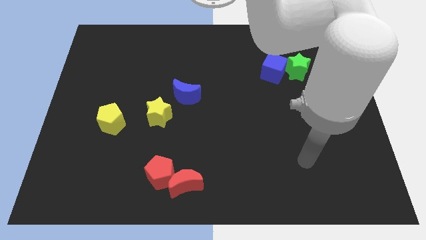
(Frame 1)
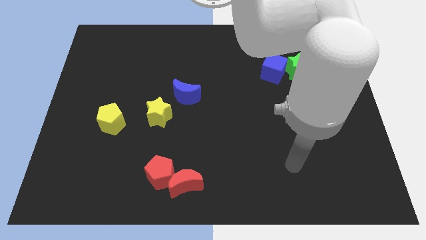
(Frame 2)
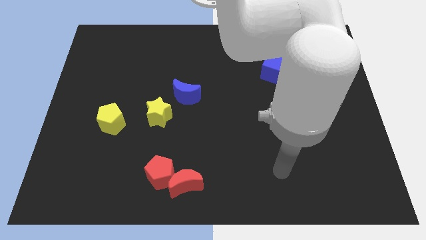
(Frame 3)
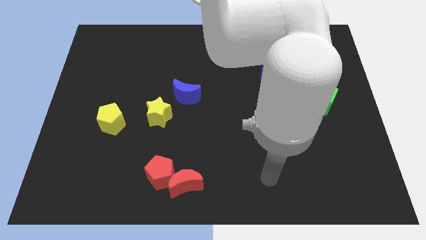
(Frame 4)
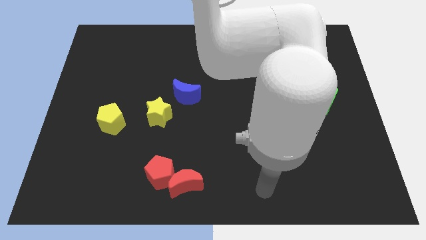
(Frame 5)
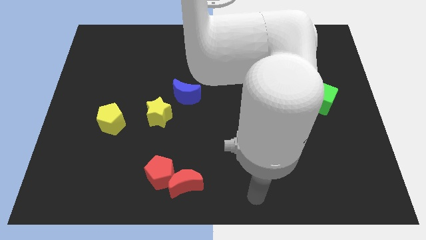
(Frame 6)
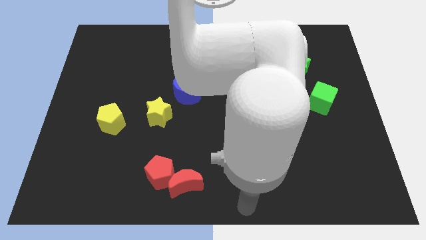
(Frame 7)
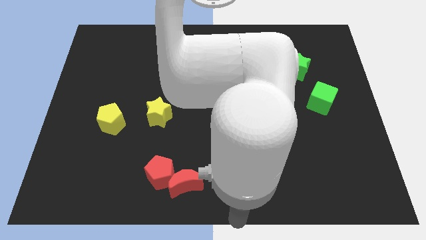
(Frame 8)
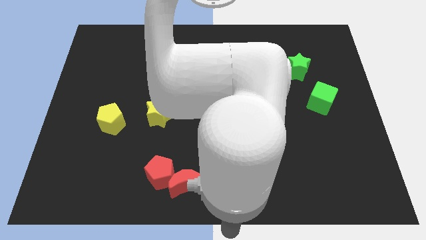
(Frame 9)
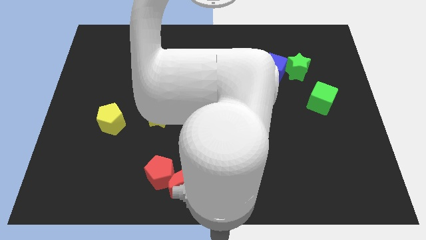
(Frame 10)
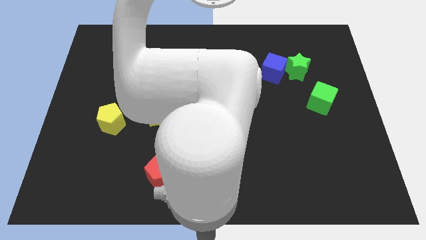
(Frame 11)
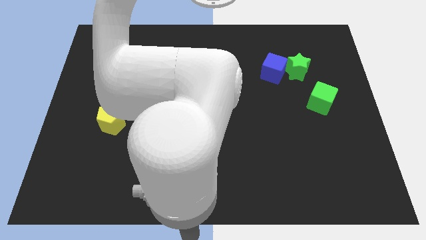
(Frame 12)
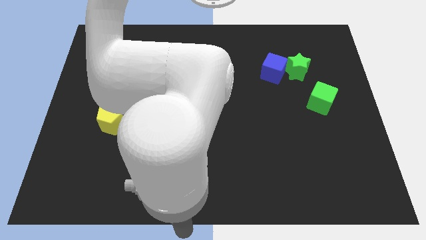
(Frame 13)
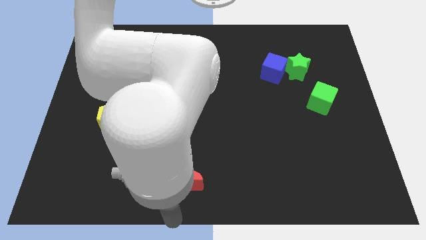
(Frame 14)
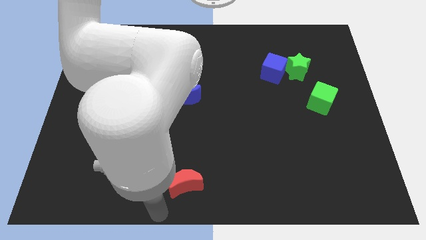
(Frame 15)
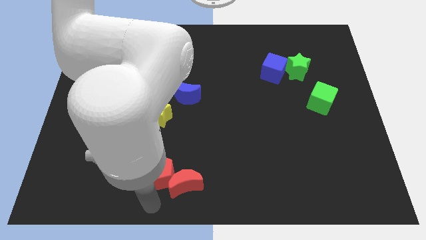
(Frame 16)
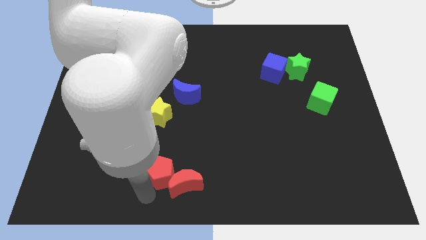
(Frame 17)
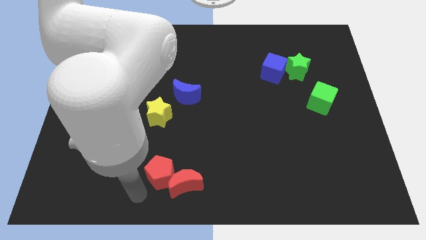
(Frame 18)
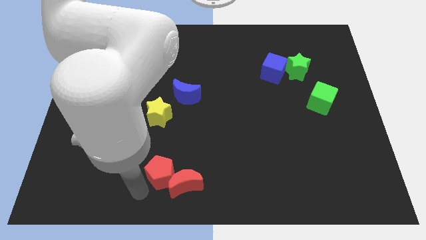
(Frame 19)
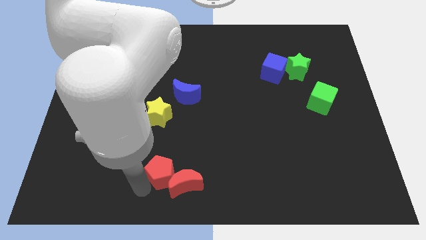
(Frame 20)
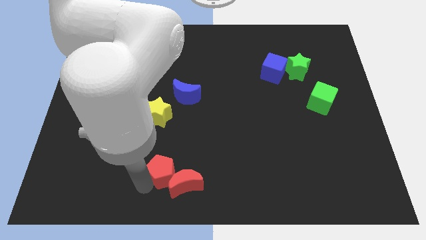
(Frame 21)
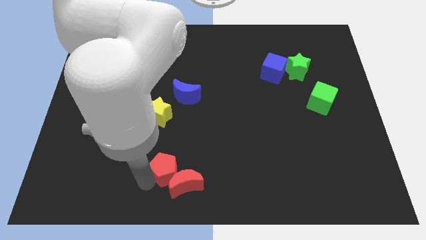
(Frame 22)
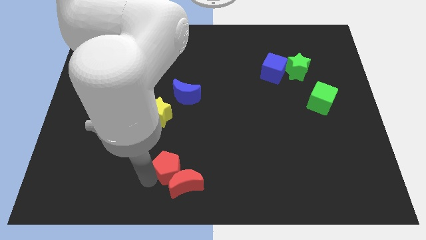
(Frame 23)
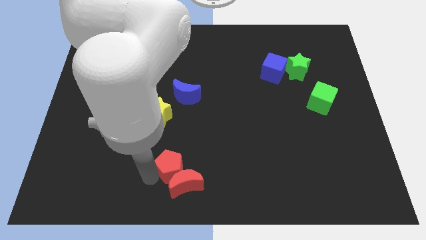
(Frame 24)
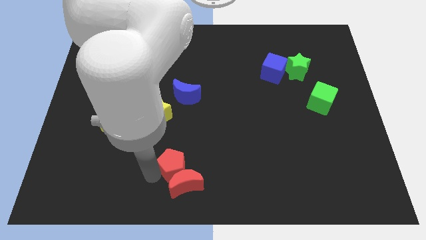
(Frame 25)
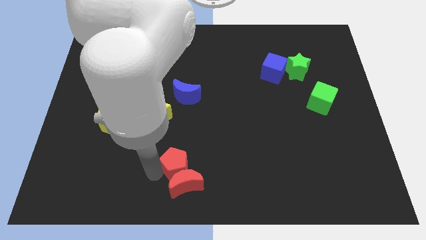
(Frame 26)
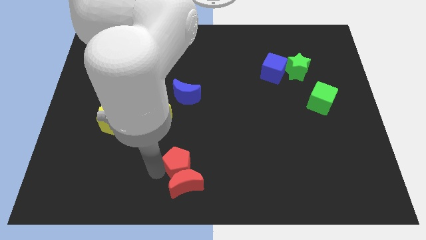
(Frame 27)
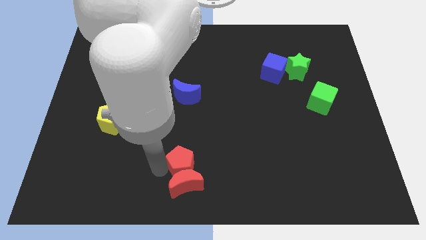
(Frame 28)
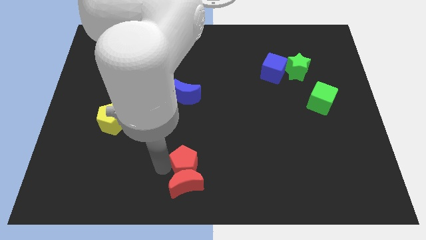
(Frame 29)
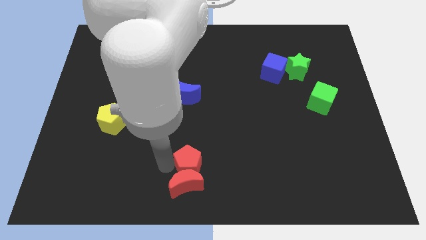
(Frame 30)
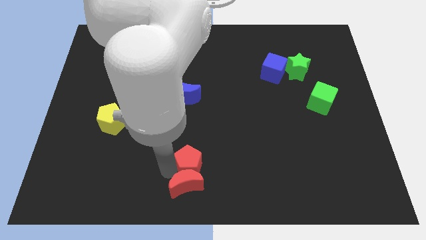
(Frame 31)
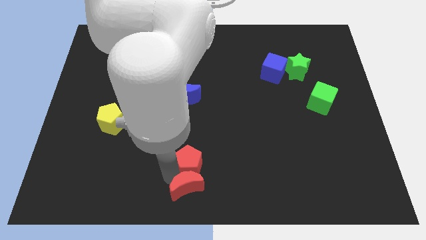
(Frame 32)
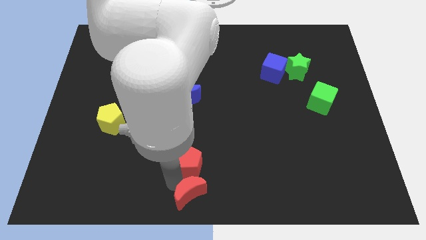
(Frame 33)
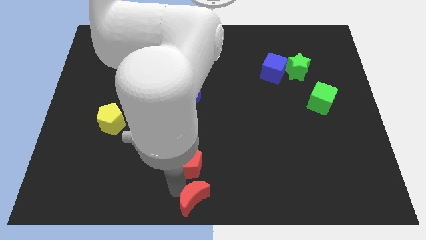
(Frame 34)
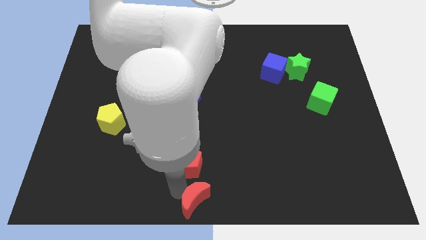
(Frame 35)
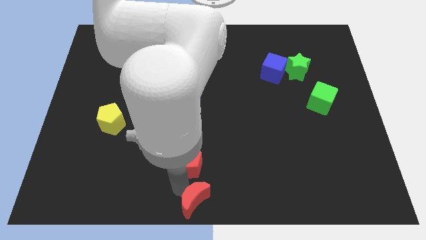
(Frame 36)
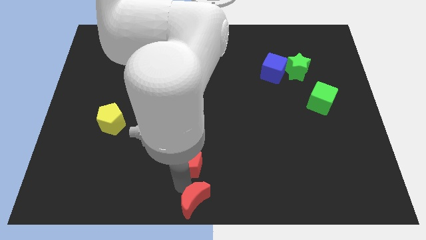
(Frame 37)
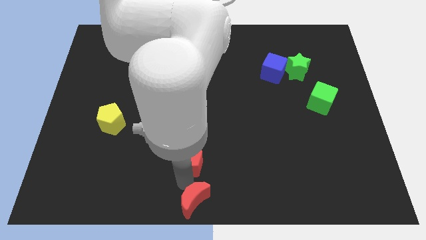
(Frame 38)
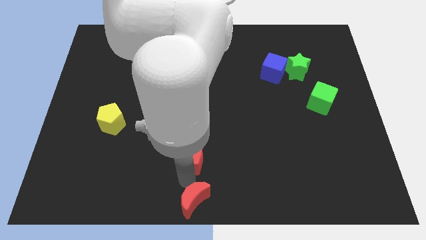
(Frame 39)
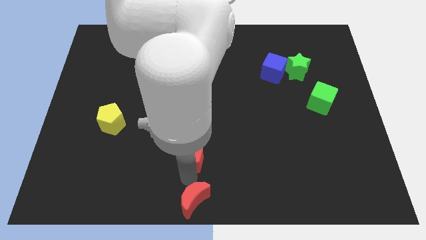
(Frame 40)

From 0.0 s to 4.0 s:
move the red pentagon a little up and to the right

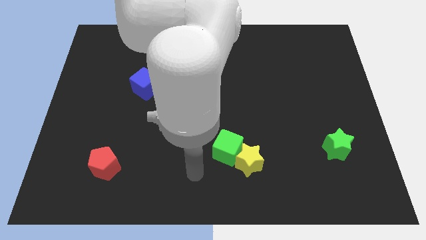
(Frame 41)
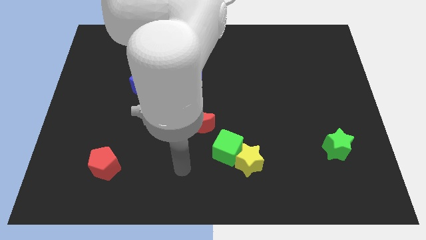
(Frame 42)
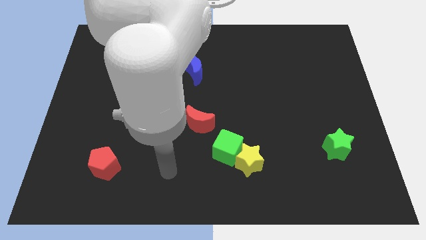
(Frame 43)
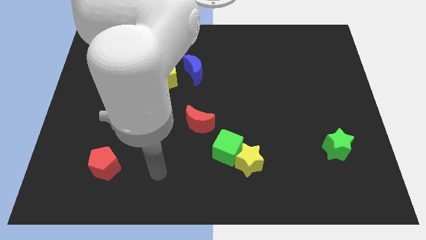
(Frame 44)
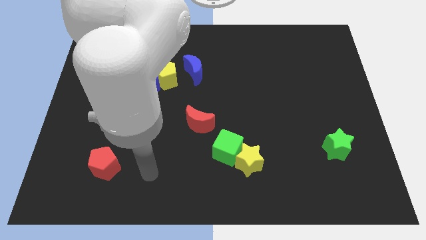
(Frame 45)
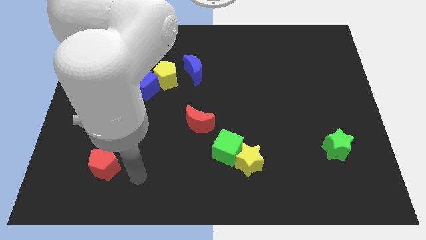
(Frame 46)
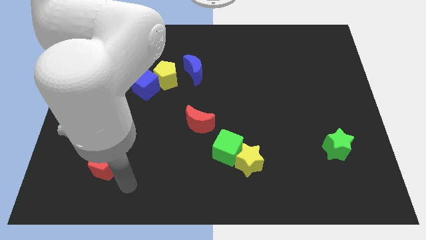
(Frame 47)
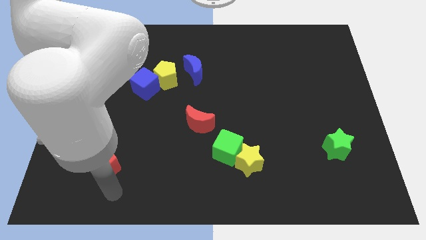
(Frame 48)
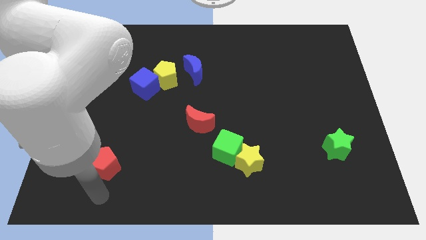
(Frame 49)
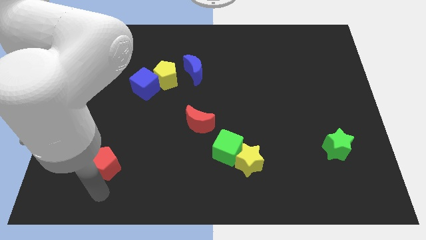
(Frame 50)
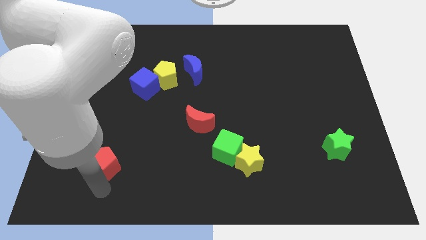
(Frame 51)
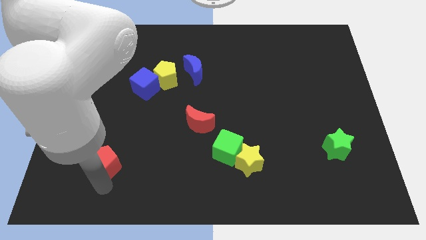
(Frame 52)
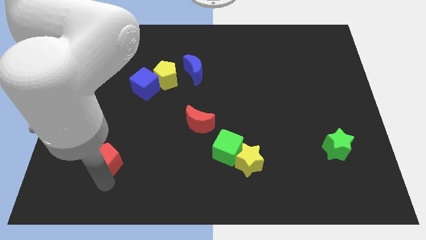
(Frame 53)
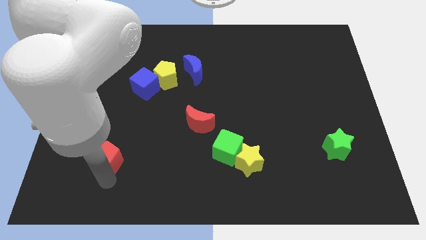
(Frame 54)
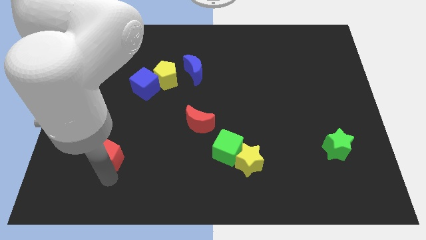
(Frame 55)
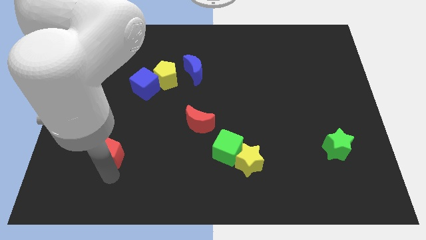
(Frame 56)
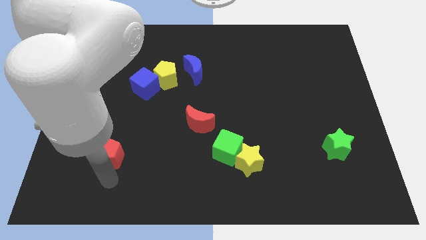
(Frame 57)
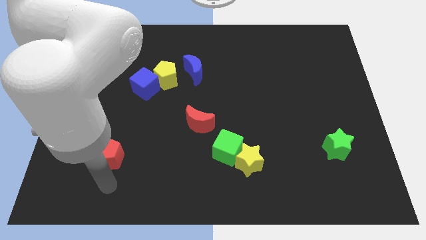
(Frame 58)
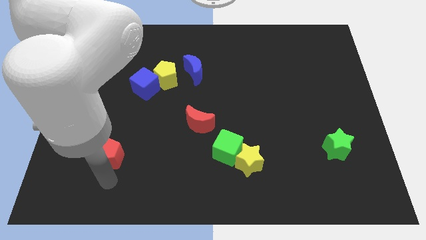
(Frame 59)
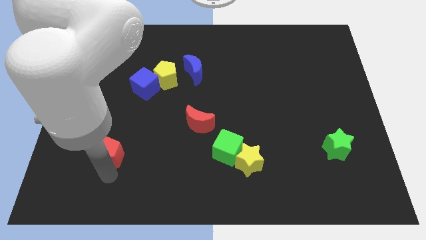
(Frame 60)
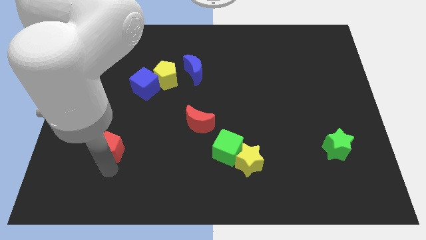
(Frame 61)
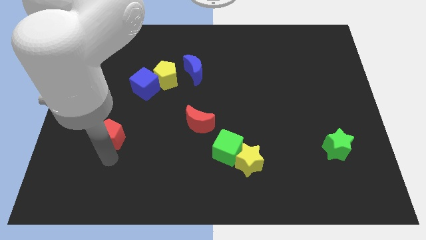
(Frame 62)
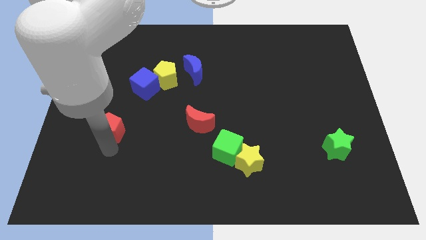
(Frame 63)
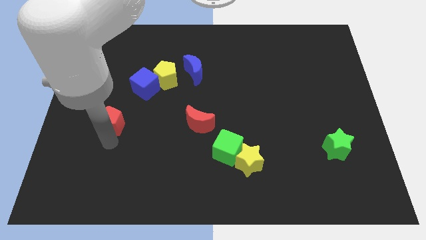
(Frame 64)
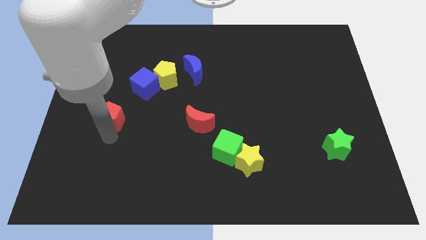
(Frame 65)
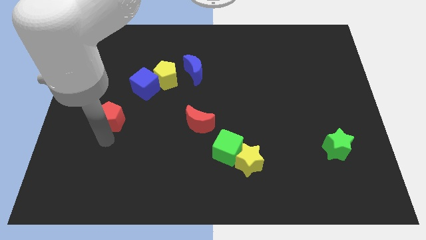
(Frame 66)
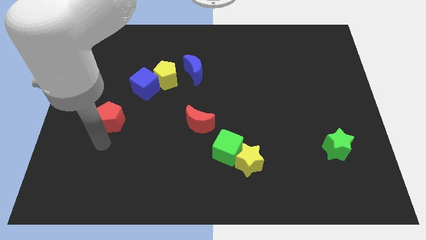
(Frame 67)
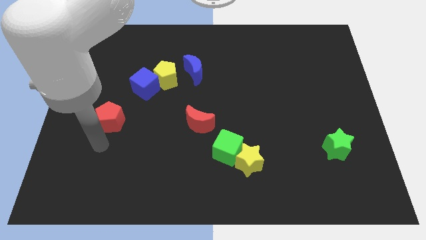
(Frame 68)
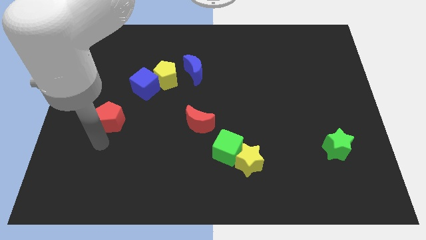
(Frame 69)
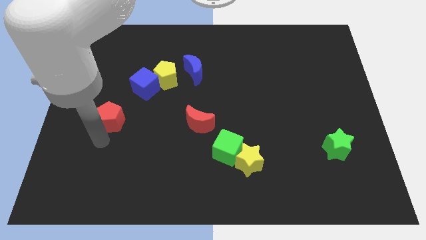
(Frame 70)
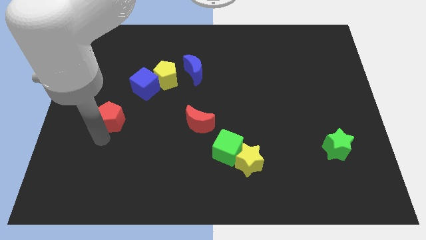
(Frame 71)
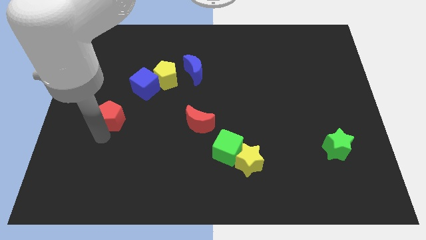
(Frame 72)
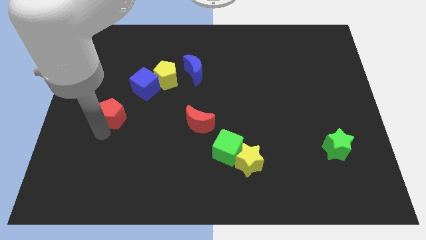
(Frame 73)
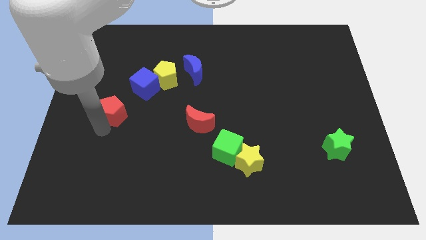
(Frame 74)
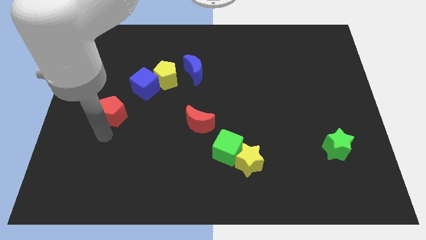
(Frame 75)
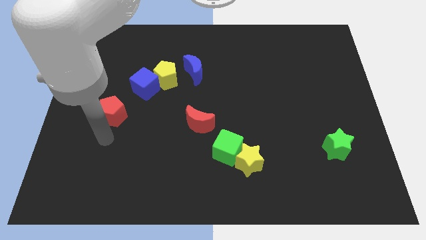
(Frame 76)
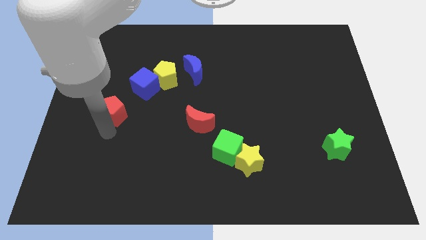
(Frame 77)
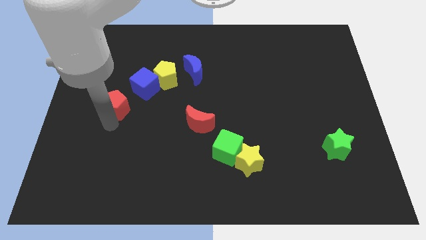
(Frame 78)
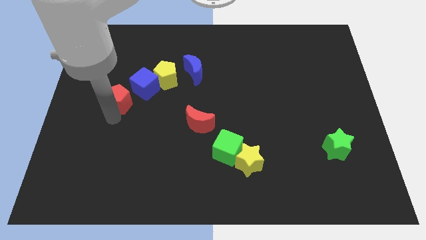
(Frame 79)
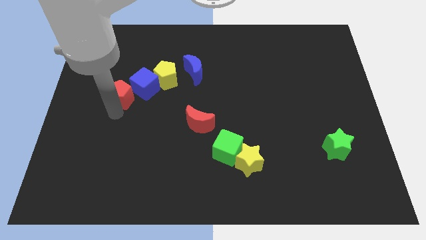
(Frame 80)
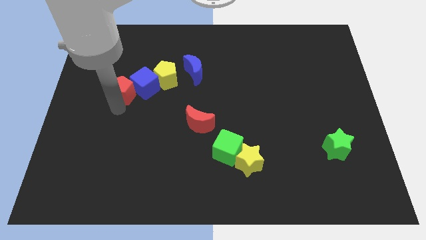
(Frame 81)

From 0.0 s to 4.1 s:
move the red pentagon up

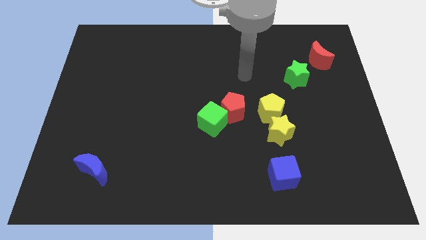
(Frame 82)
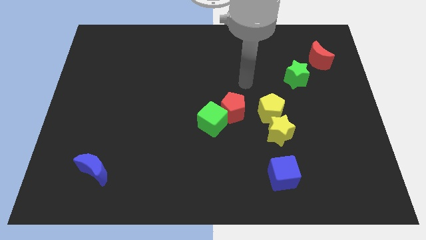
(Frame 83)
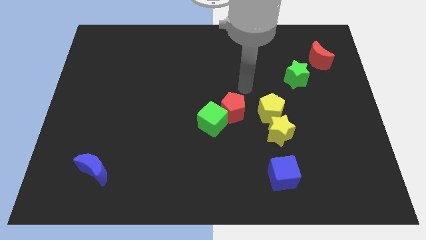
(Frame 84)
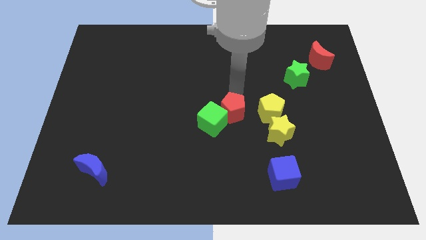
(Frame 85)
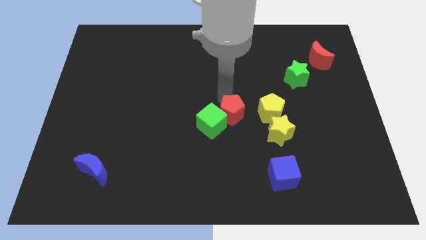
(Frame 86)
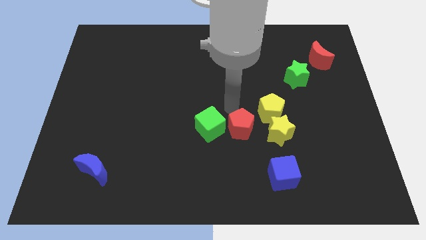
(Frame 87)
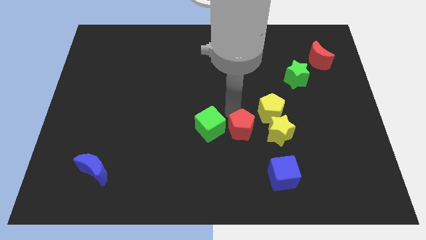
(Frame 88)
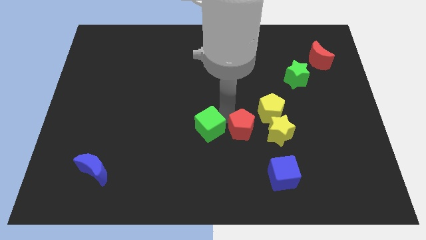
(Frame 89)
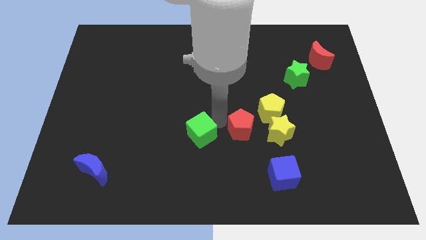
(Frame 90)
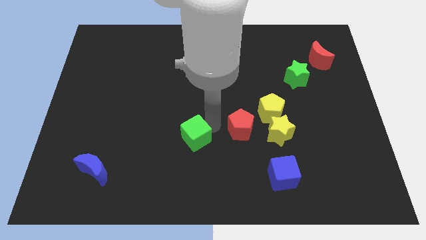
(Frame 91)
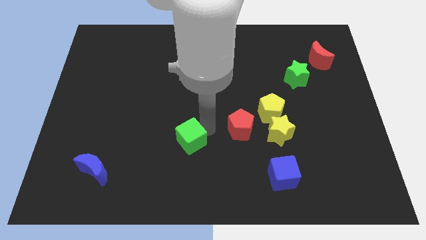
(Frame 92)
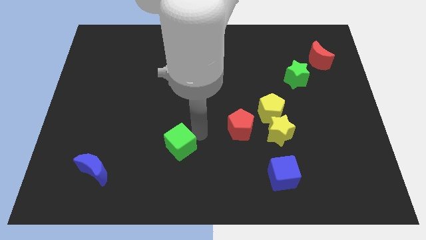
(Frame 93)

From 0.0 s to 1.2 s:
slide the green cube downwards and to the left diagonally a little
